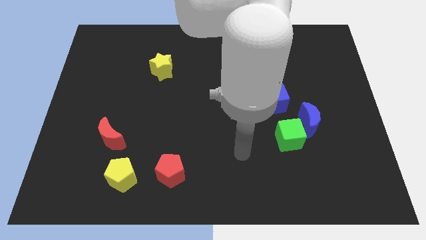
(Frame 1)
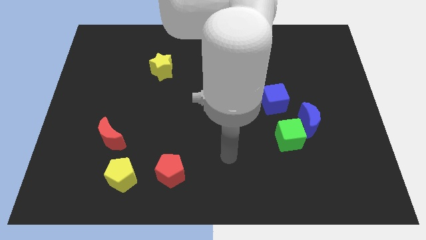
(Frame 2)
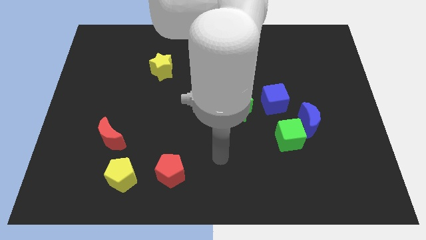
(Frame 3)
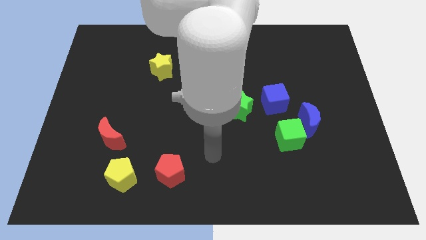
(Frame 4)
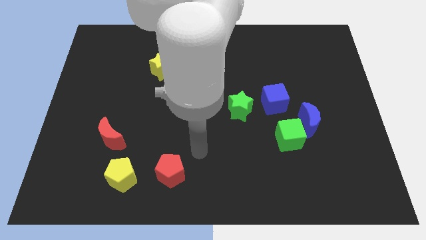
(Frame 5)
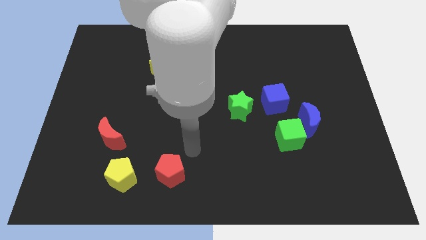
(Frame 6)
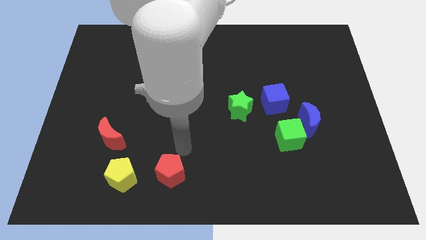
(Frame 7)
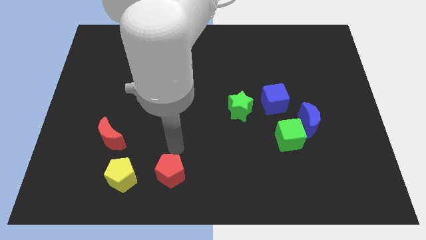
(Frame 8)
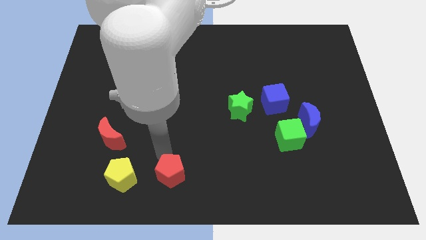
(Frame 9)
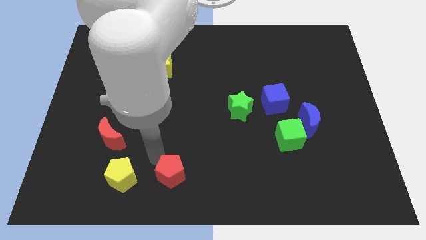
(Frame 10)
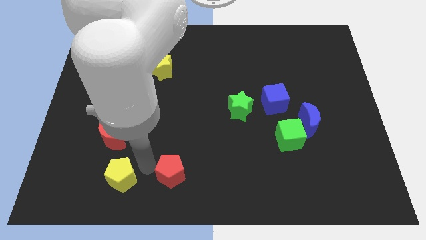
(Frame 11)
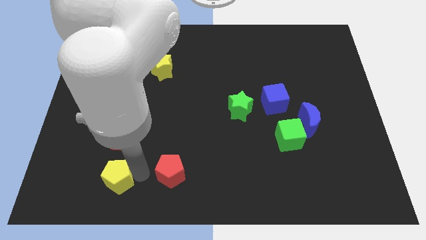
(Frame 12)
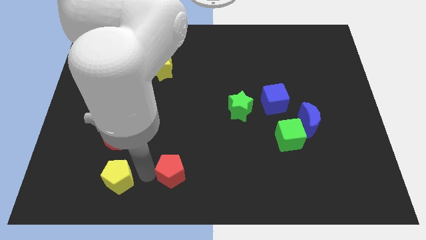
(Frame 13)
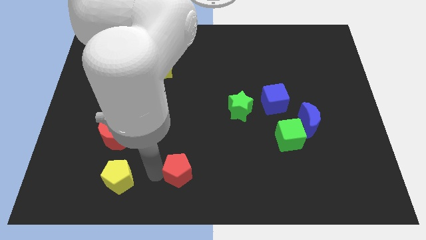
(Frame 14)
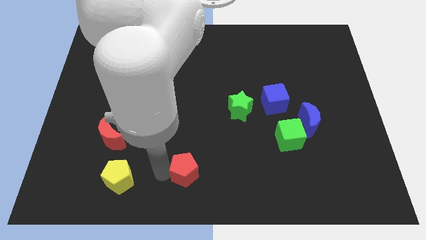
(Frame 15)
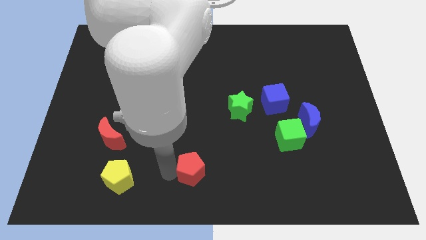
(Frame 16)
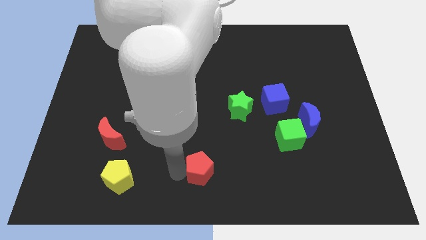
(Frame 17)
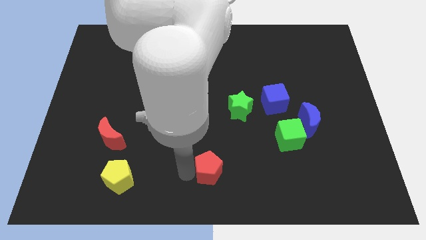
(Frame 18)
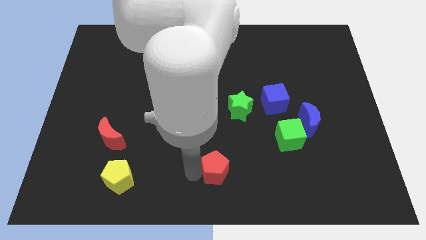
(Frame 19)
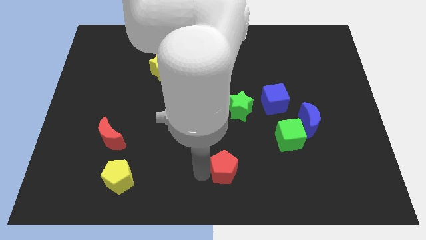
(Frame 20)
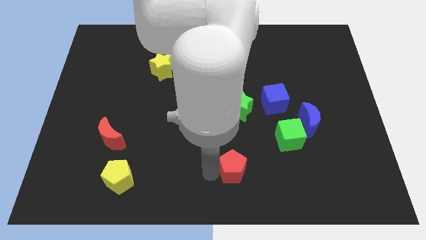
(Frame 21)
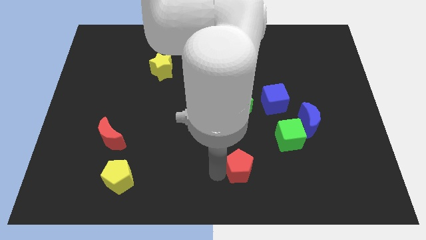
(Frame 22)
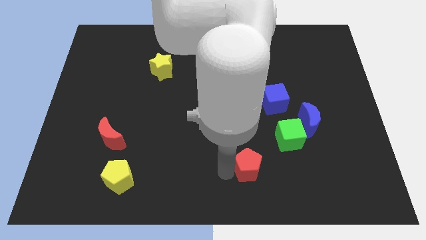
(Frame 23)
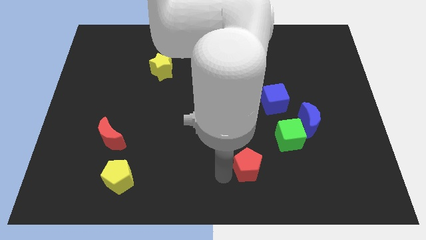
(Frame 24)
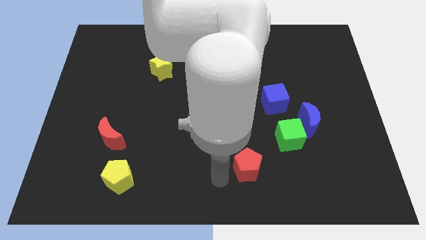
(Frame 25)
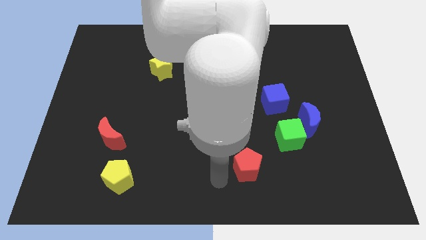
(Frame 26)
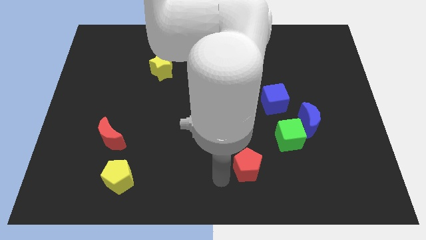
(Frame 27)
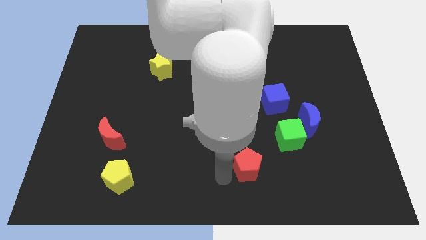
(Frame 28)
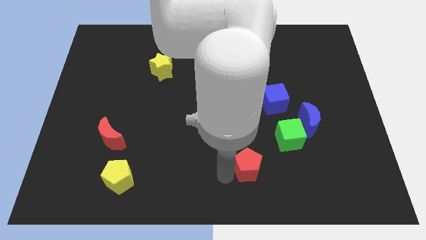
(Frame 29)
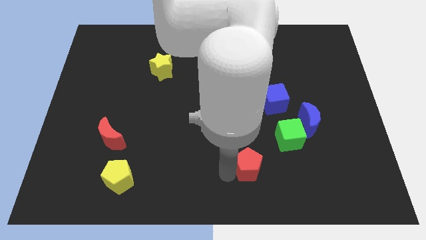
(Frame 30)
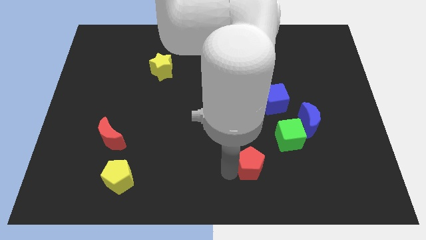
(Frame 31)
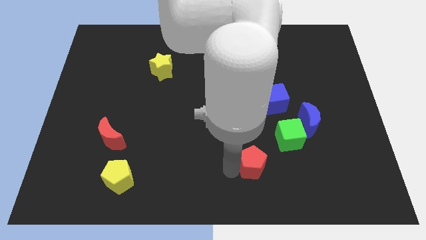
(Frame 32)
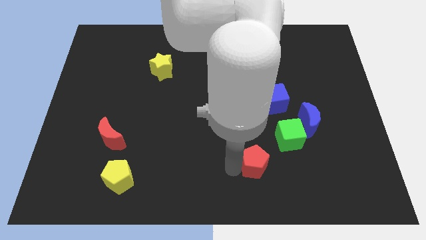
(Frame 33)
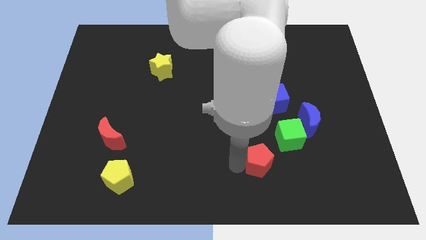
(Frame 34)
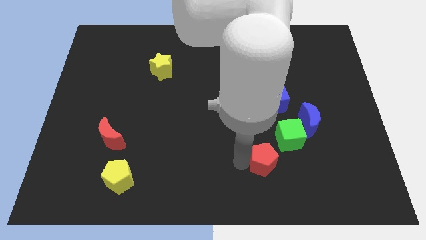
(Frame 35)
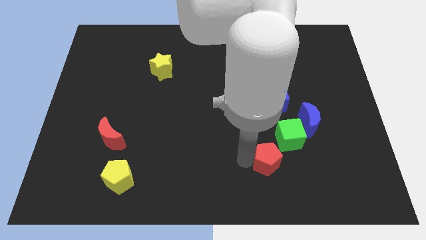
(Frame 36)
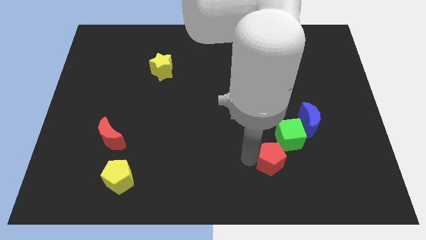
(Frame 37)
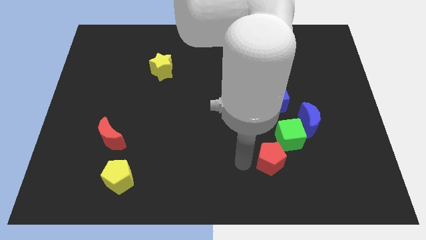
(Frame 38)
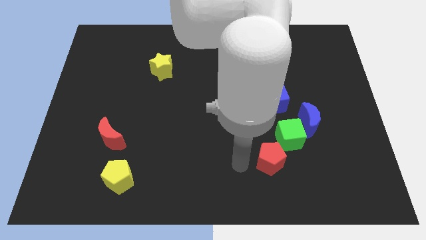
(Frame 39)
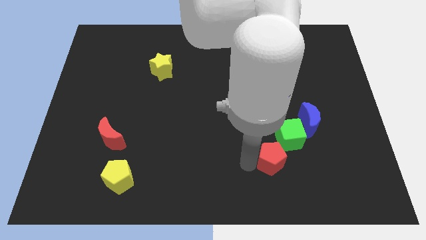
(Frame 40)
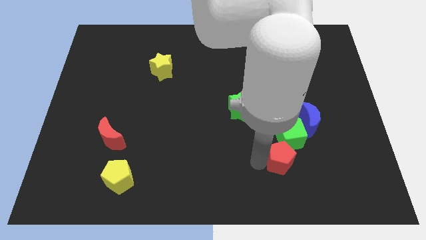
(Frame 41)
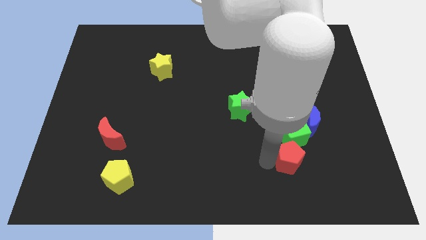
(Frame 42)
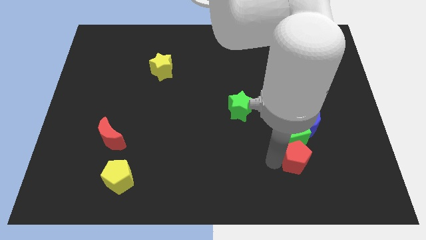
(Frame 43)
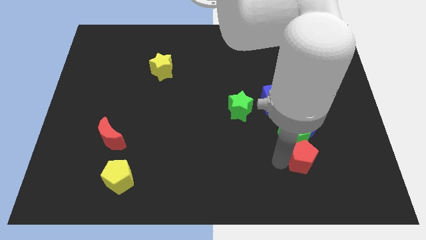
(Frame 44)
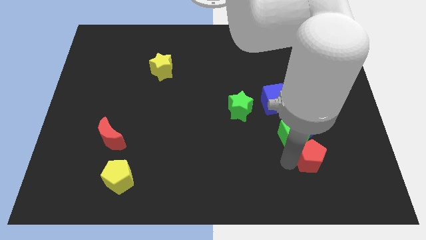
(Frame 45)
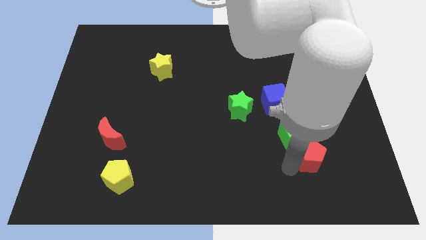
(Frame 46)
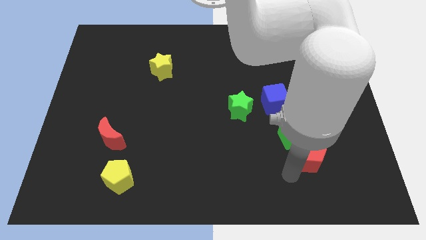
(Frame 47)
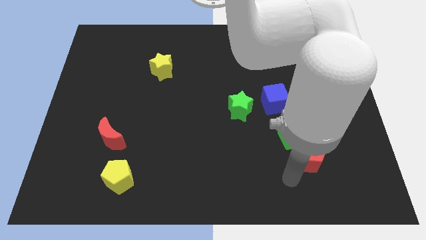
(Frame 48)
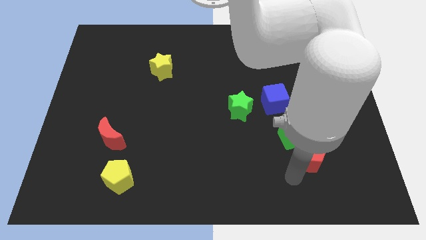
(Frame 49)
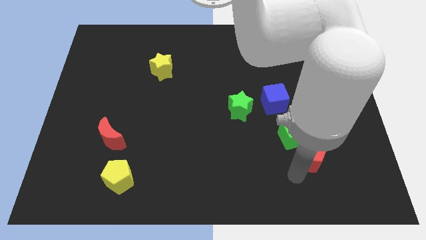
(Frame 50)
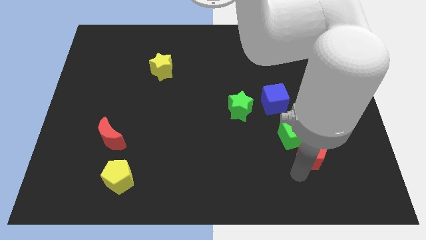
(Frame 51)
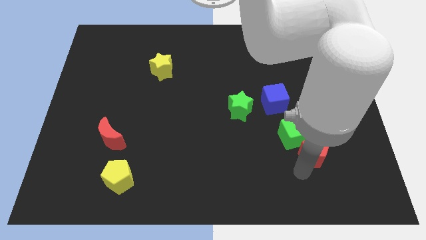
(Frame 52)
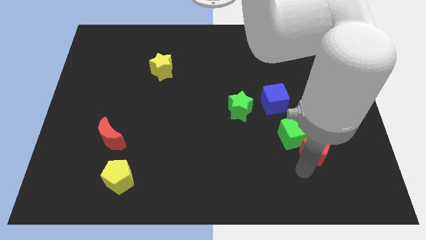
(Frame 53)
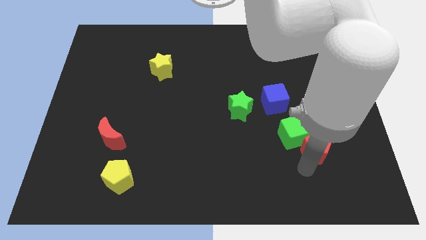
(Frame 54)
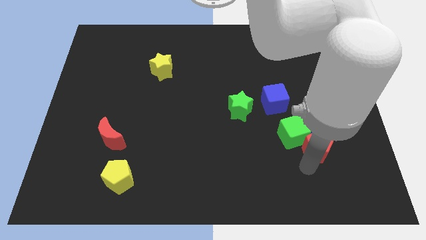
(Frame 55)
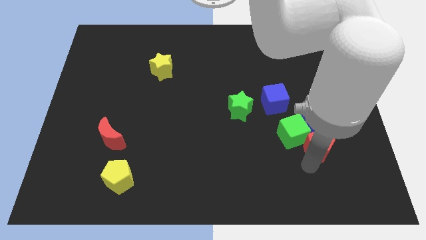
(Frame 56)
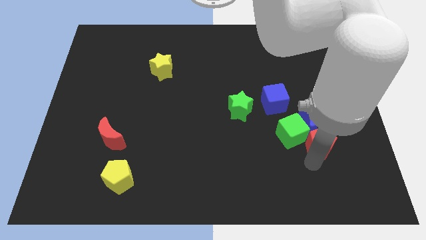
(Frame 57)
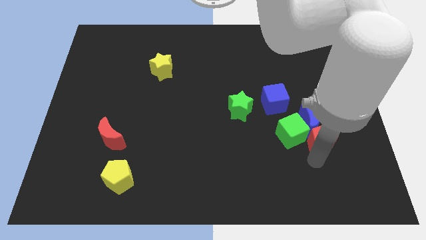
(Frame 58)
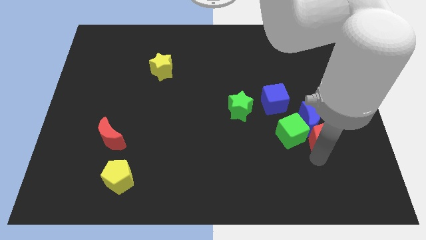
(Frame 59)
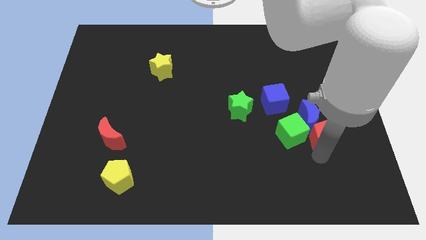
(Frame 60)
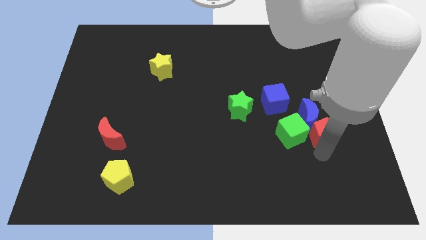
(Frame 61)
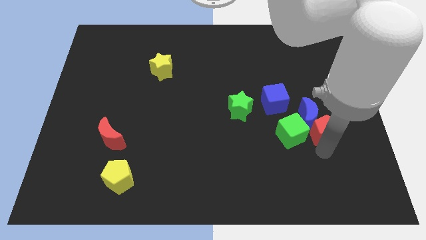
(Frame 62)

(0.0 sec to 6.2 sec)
slide the red pentagon diagonally up and to the right of the green cube

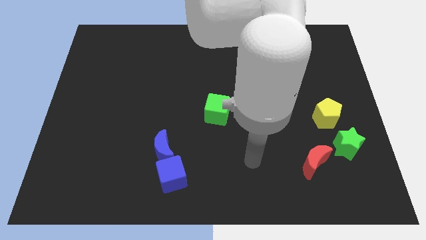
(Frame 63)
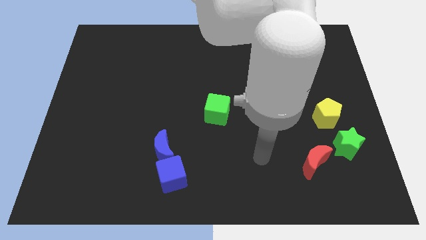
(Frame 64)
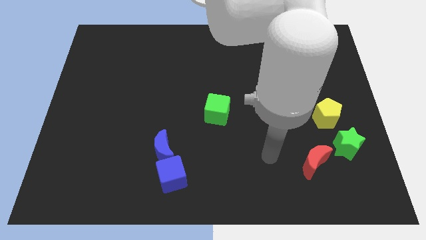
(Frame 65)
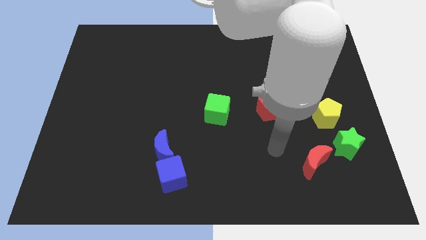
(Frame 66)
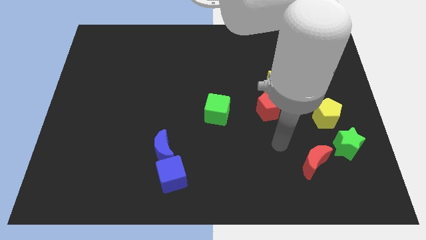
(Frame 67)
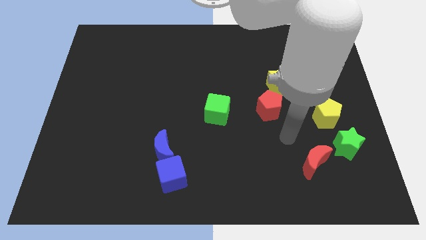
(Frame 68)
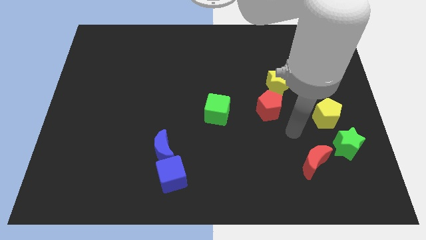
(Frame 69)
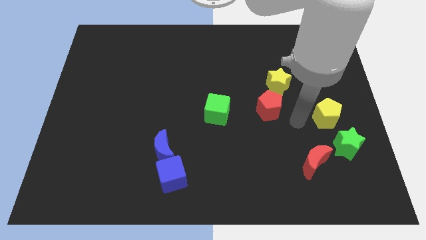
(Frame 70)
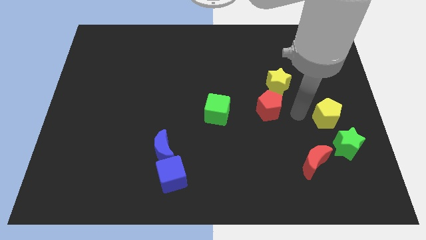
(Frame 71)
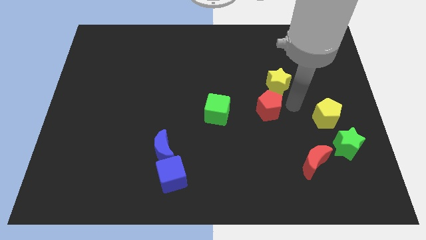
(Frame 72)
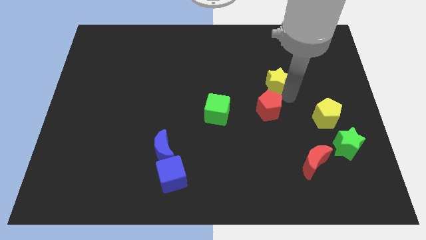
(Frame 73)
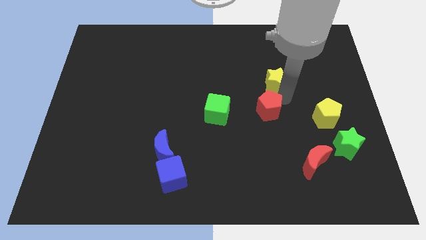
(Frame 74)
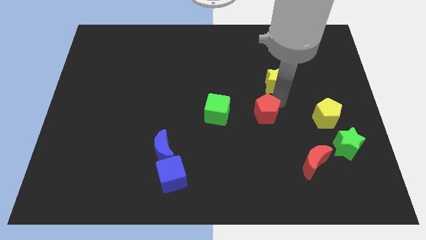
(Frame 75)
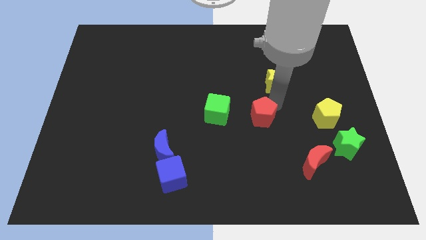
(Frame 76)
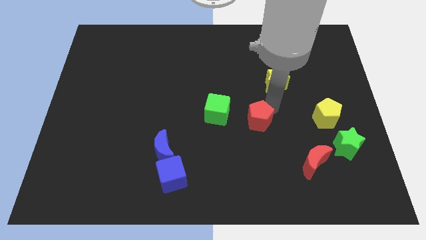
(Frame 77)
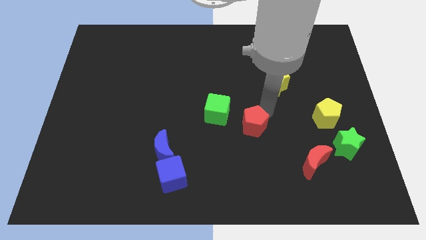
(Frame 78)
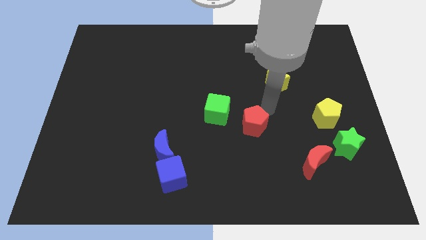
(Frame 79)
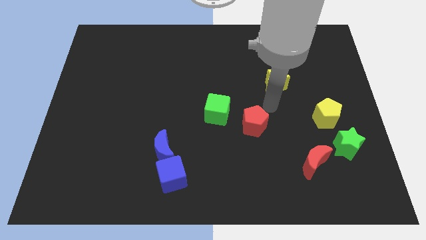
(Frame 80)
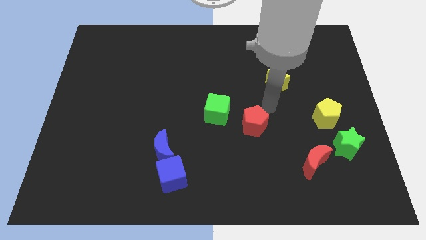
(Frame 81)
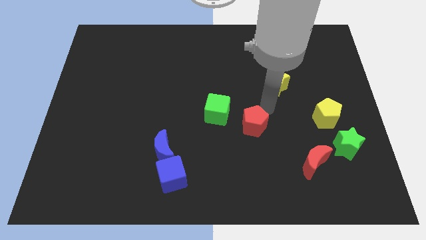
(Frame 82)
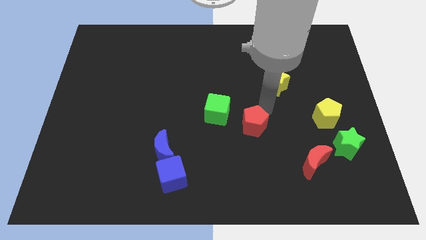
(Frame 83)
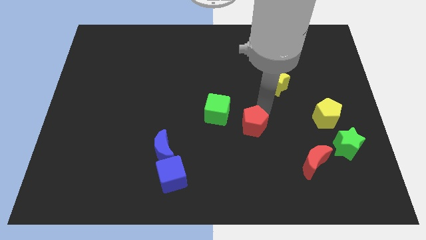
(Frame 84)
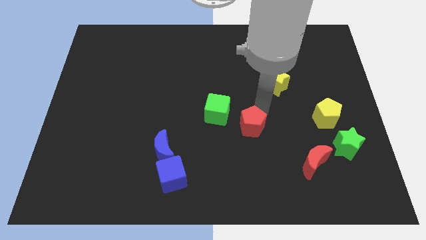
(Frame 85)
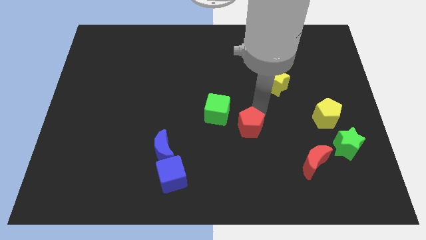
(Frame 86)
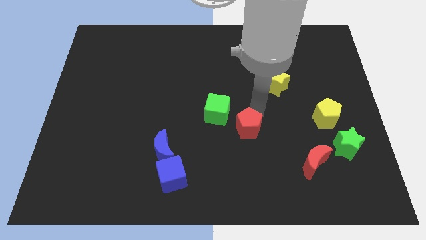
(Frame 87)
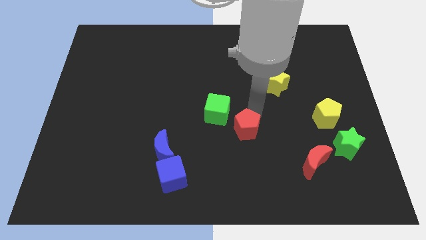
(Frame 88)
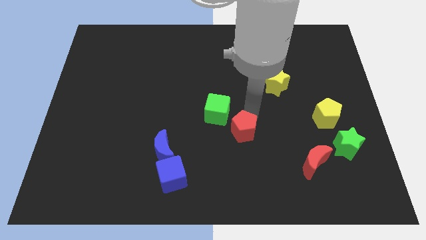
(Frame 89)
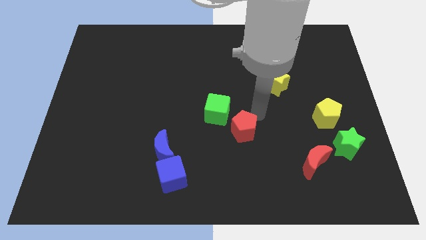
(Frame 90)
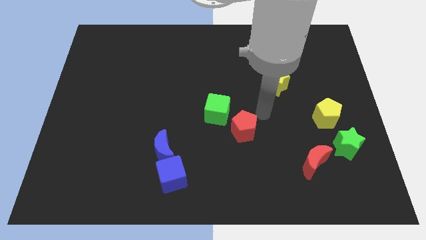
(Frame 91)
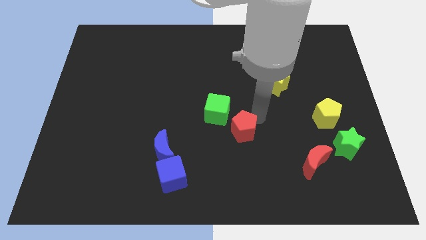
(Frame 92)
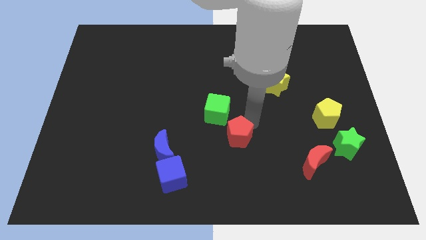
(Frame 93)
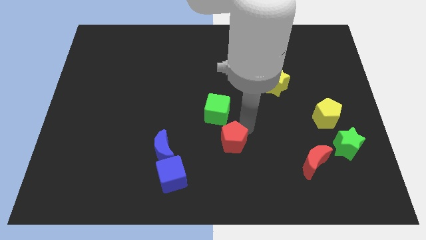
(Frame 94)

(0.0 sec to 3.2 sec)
move the red pentagon just right of the blue moon
